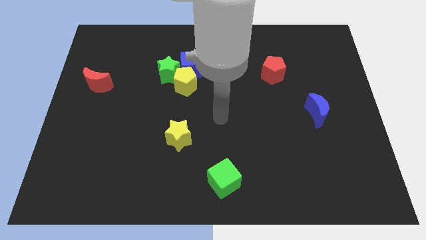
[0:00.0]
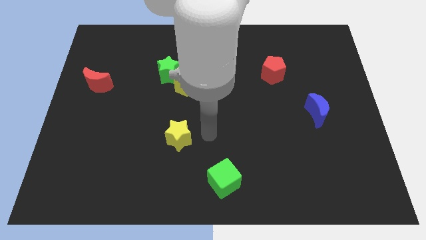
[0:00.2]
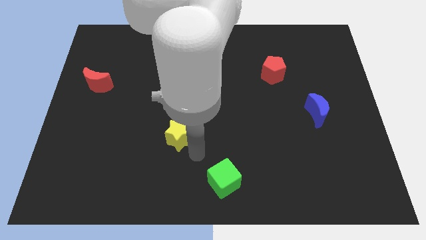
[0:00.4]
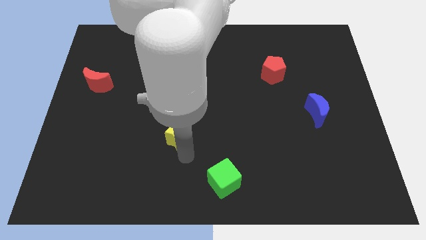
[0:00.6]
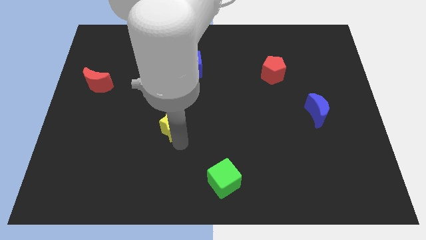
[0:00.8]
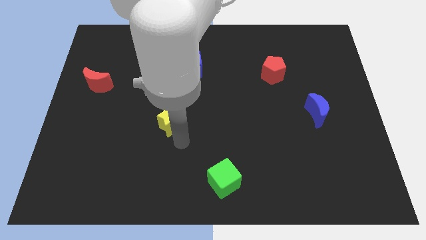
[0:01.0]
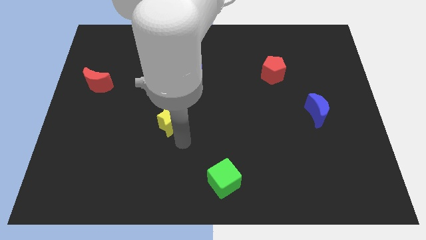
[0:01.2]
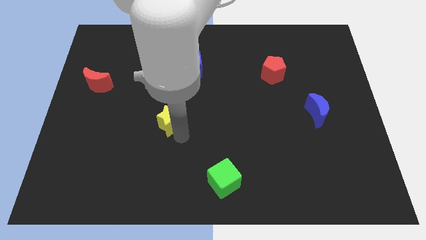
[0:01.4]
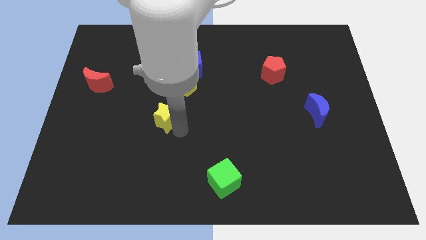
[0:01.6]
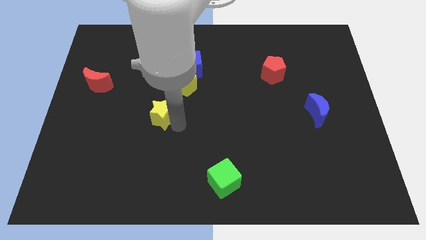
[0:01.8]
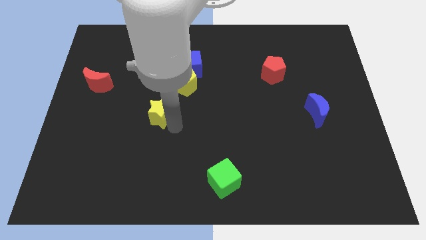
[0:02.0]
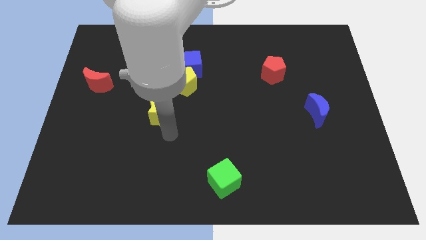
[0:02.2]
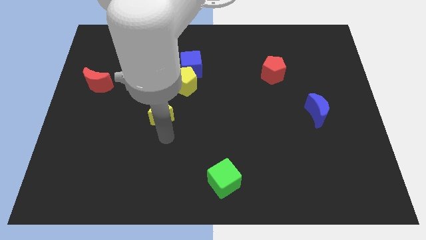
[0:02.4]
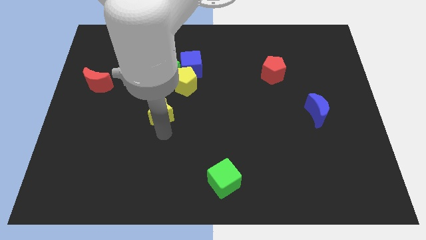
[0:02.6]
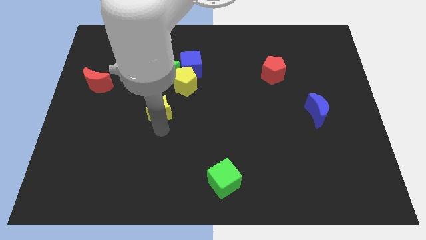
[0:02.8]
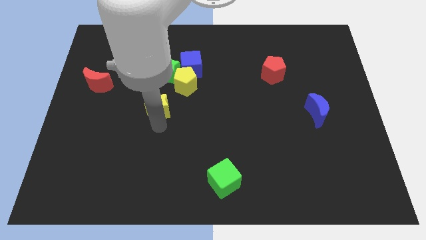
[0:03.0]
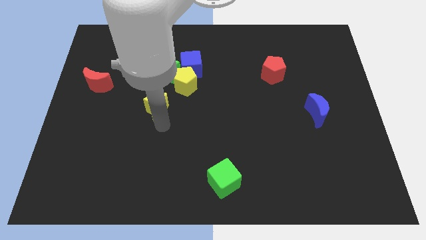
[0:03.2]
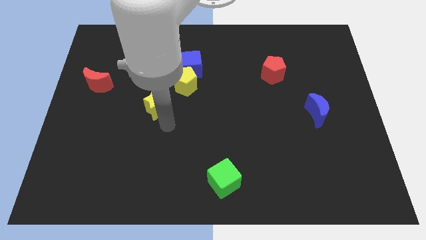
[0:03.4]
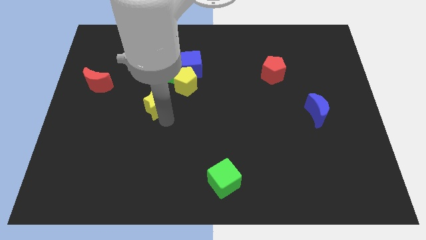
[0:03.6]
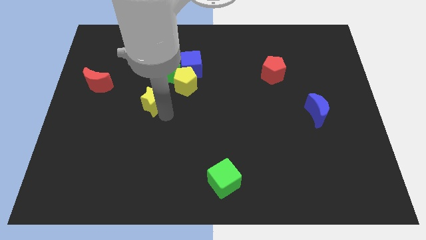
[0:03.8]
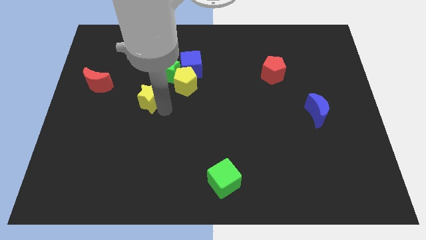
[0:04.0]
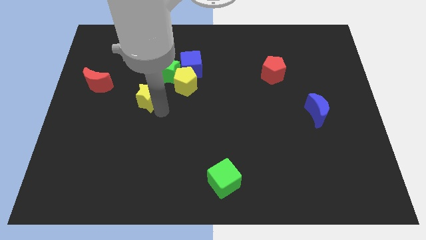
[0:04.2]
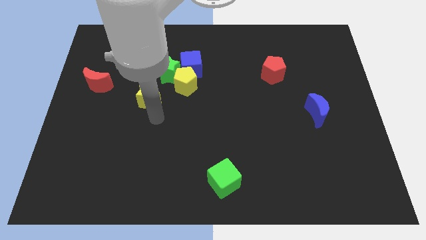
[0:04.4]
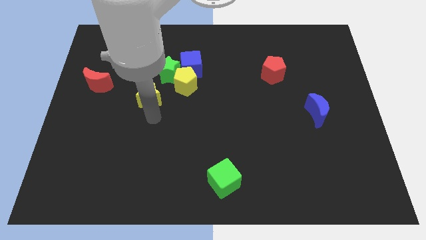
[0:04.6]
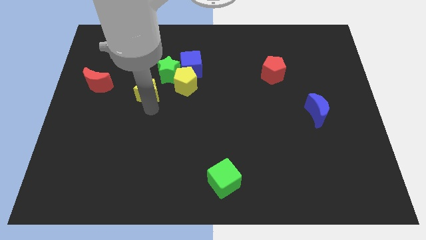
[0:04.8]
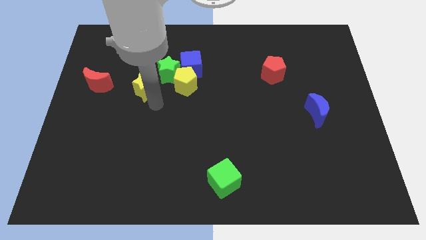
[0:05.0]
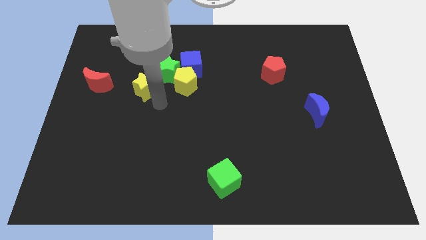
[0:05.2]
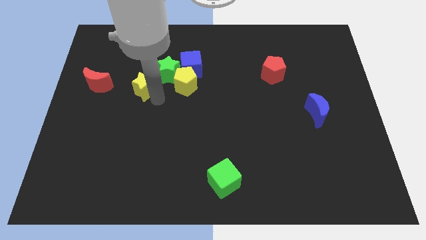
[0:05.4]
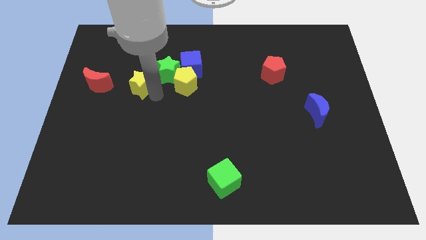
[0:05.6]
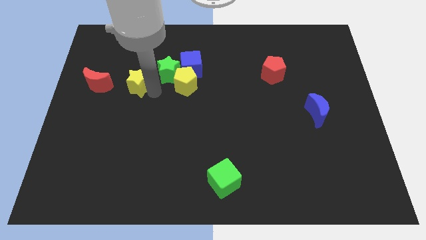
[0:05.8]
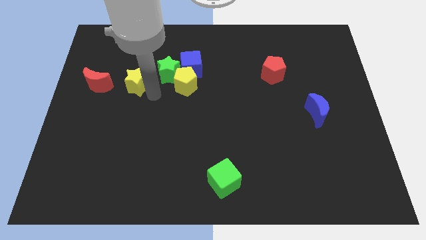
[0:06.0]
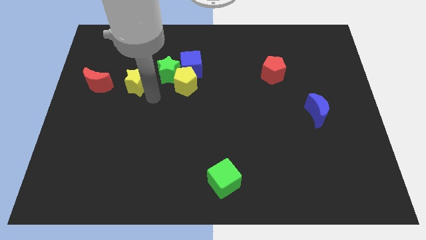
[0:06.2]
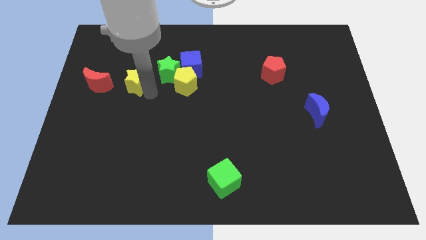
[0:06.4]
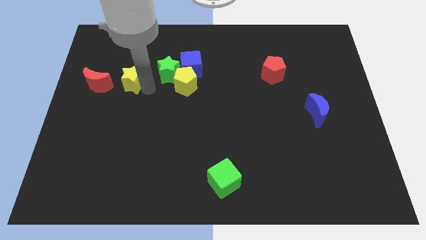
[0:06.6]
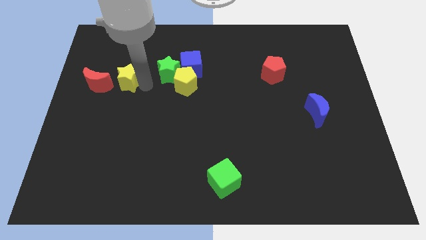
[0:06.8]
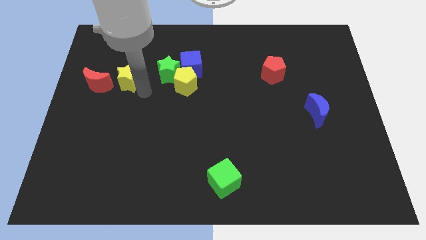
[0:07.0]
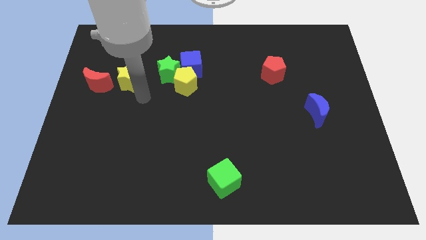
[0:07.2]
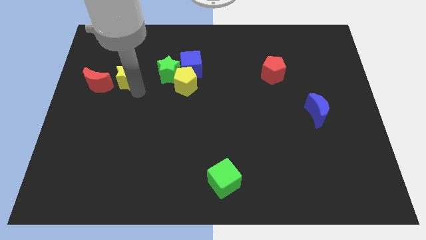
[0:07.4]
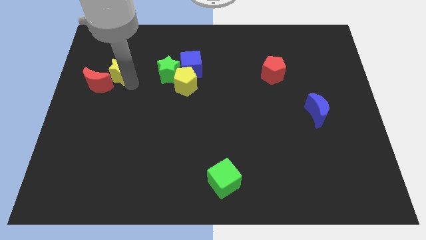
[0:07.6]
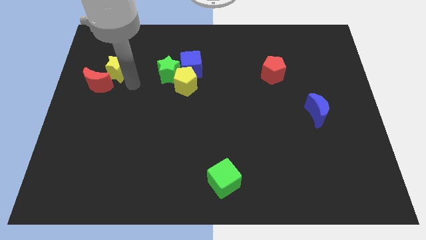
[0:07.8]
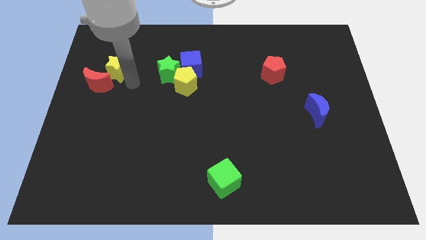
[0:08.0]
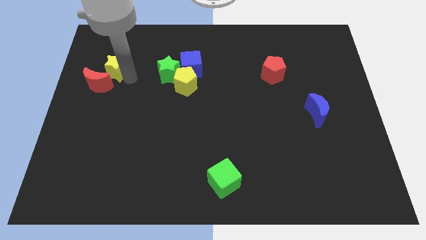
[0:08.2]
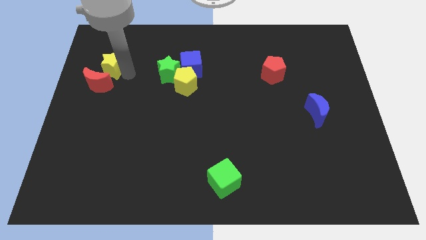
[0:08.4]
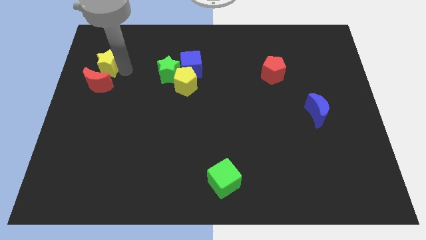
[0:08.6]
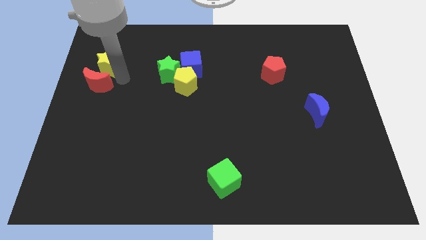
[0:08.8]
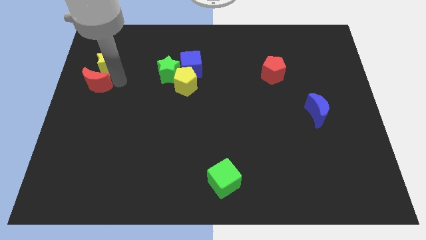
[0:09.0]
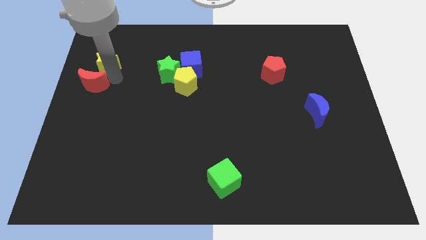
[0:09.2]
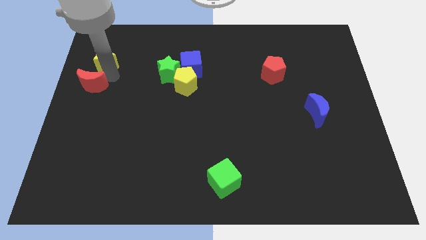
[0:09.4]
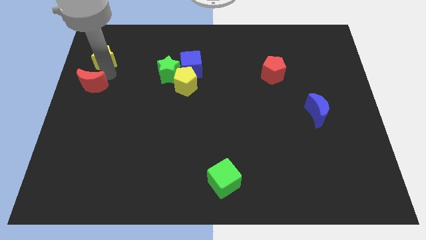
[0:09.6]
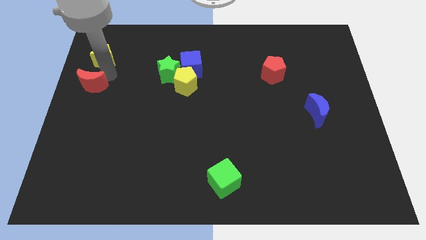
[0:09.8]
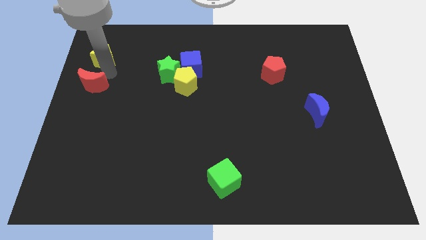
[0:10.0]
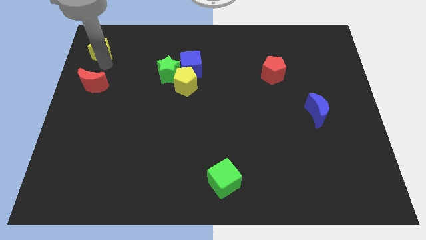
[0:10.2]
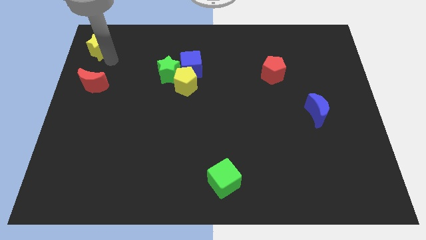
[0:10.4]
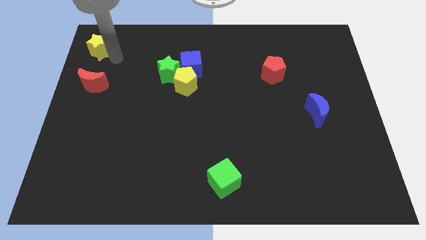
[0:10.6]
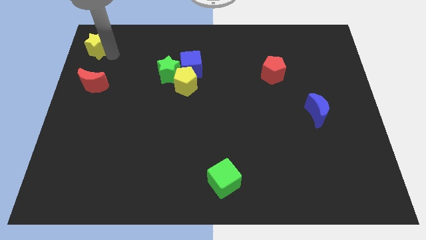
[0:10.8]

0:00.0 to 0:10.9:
slide the yellow star to the upper left corner

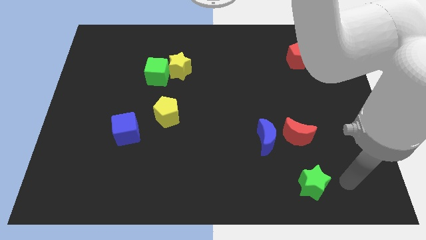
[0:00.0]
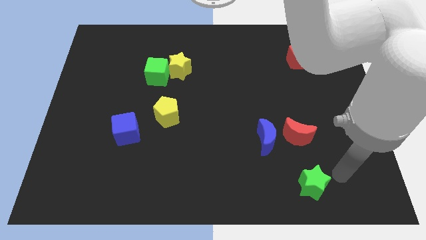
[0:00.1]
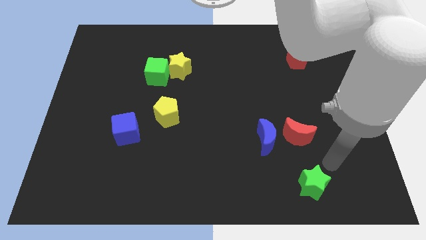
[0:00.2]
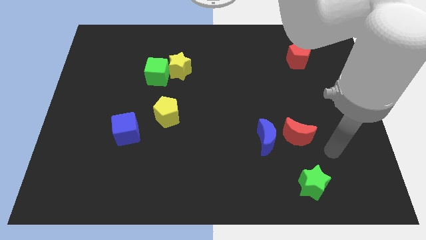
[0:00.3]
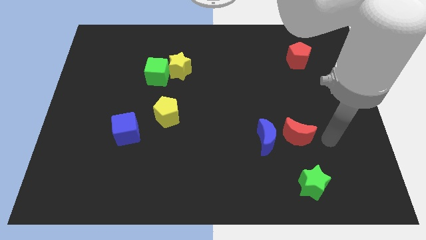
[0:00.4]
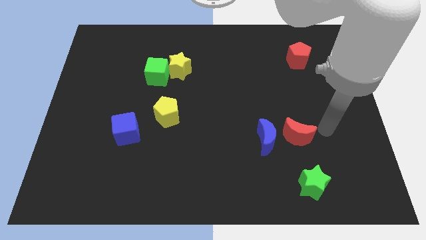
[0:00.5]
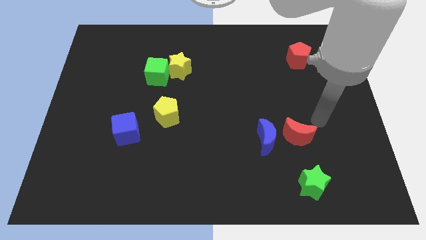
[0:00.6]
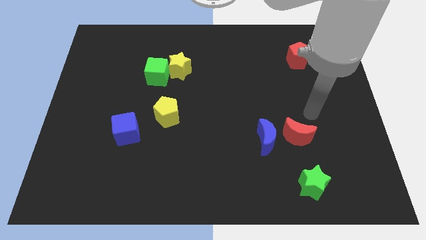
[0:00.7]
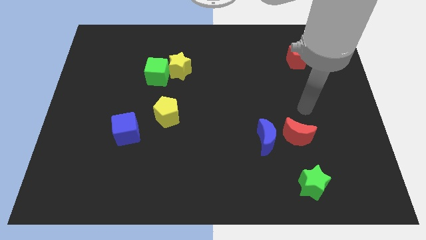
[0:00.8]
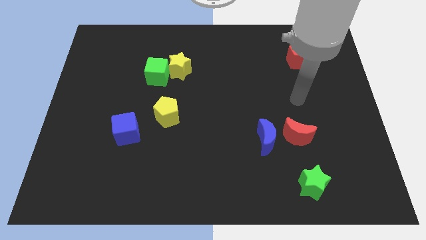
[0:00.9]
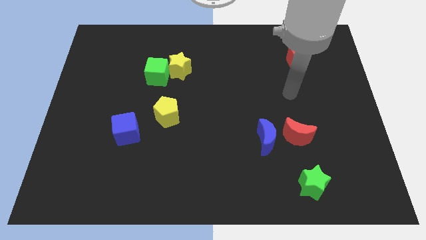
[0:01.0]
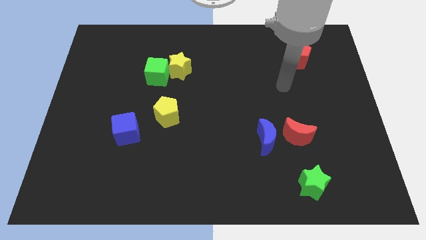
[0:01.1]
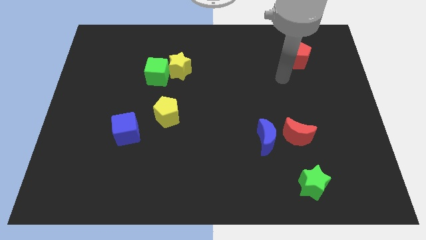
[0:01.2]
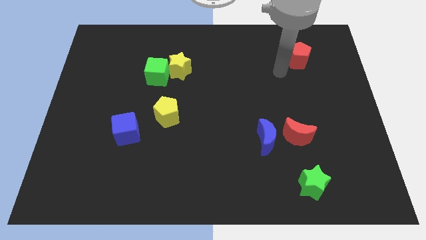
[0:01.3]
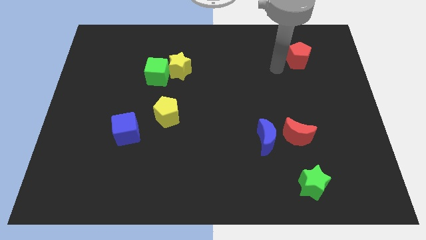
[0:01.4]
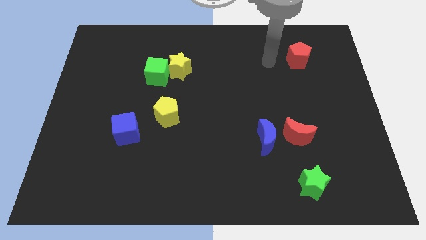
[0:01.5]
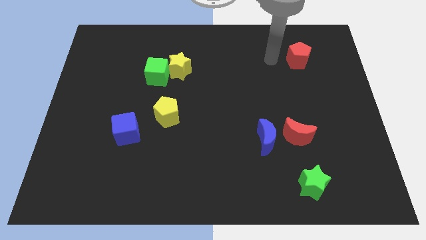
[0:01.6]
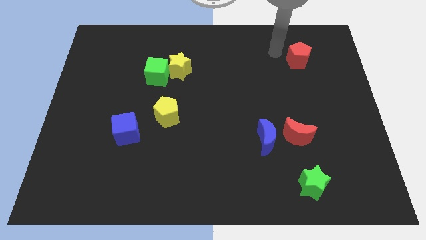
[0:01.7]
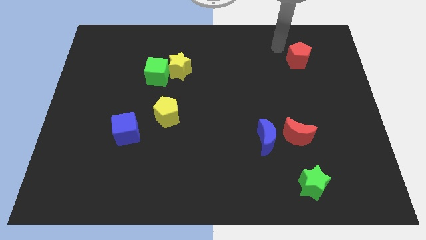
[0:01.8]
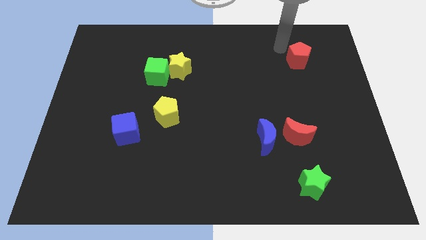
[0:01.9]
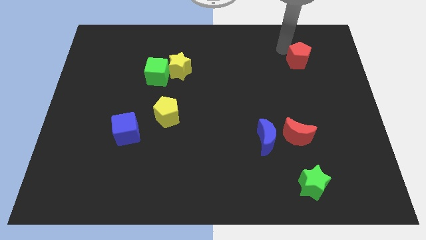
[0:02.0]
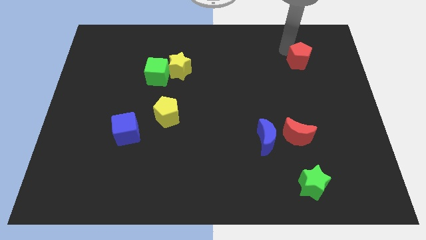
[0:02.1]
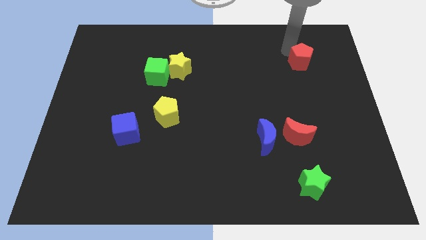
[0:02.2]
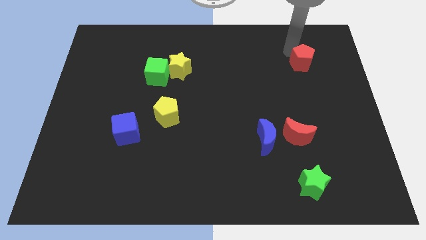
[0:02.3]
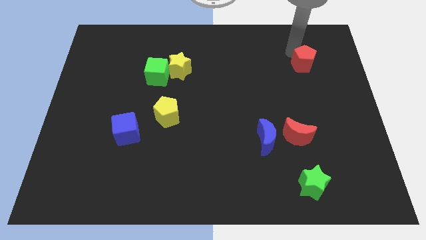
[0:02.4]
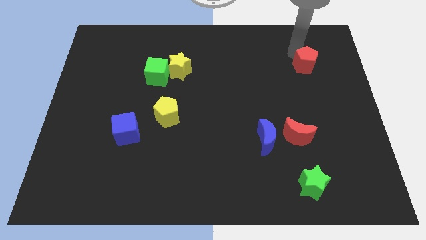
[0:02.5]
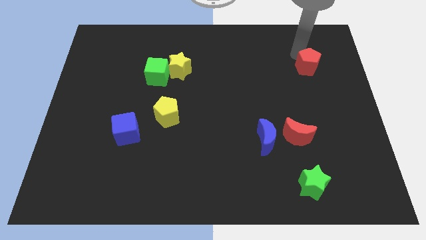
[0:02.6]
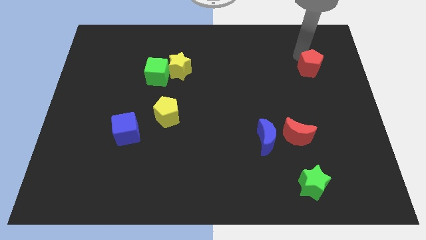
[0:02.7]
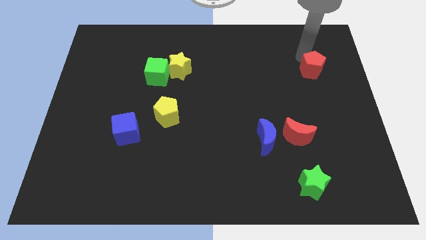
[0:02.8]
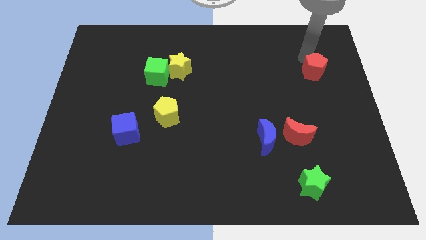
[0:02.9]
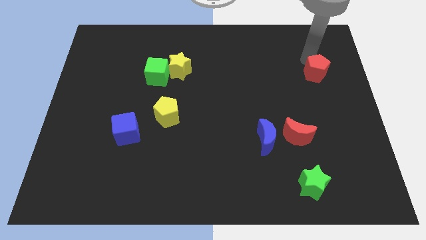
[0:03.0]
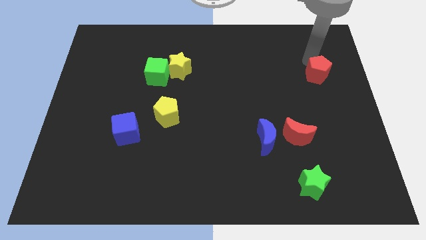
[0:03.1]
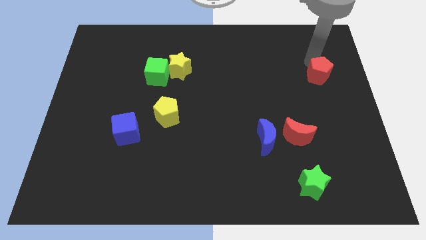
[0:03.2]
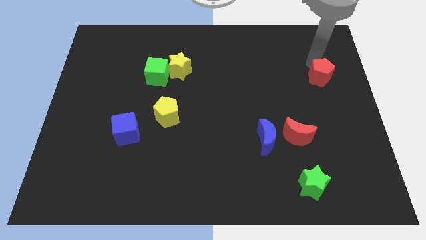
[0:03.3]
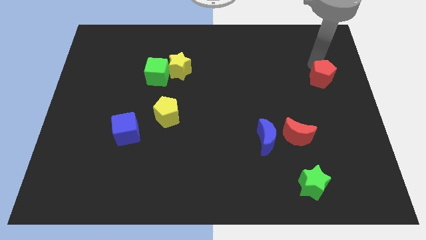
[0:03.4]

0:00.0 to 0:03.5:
slide the red pentagon to the right side
